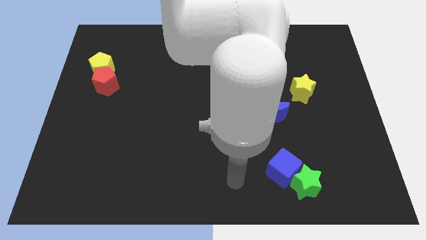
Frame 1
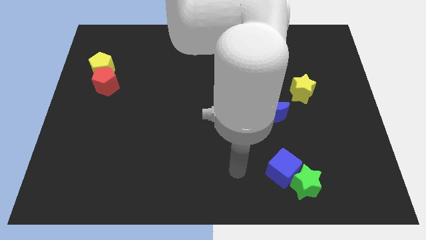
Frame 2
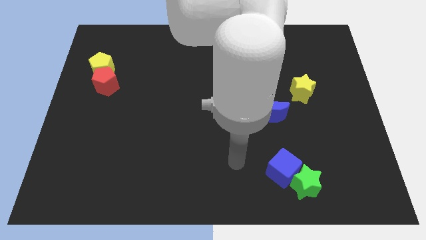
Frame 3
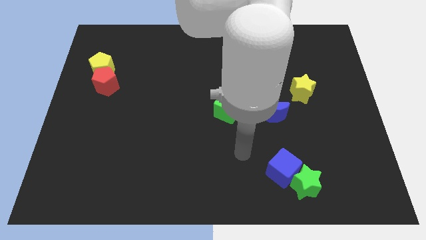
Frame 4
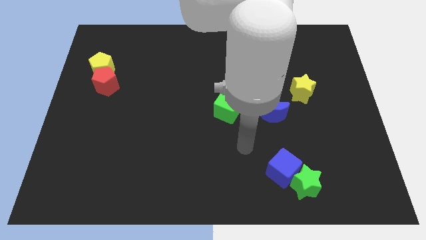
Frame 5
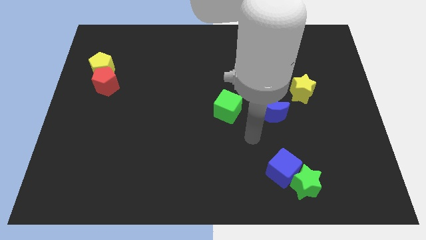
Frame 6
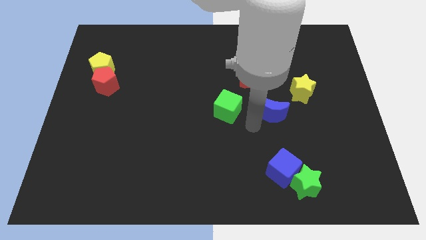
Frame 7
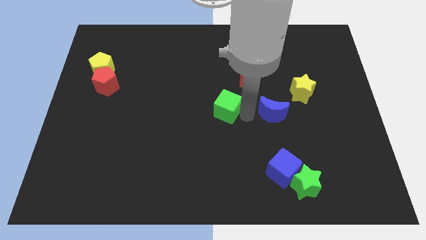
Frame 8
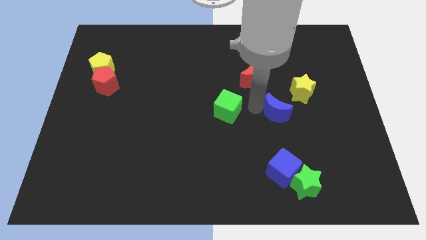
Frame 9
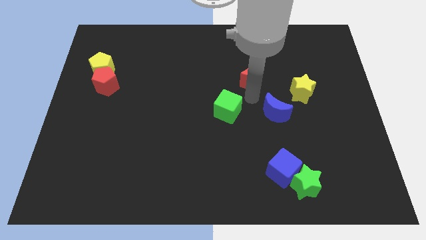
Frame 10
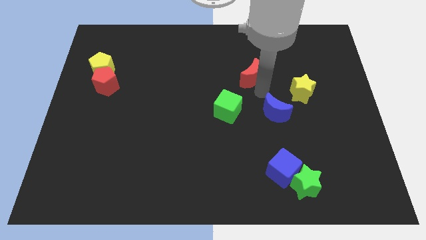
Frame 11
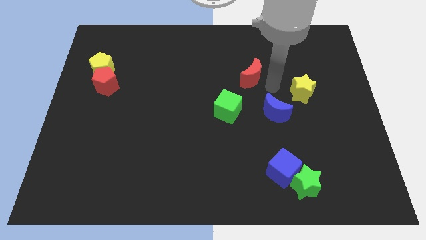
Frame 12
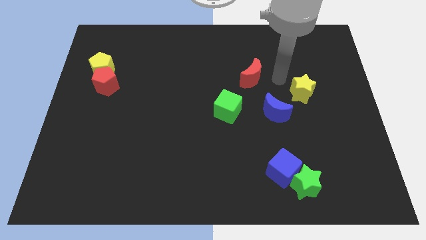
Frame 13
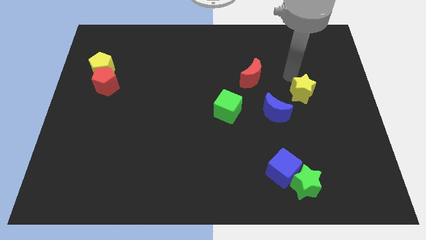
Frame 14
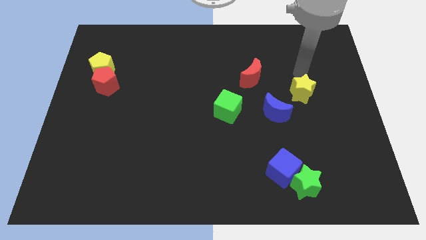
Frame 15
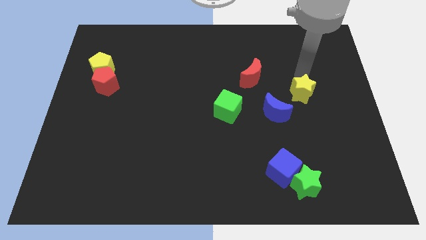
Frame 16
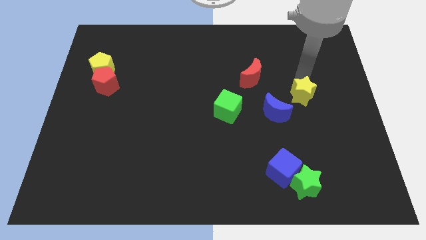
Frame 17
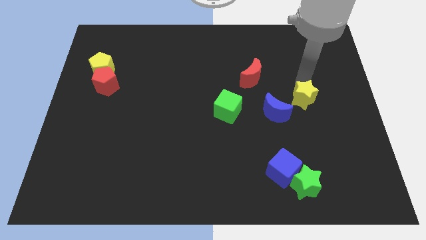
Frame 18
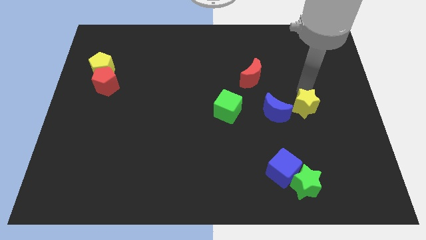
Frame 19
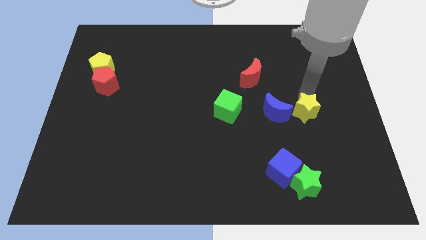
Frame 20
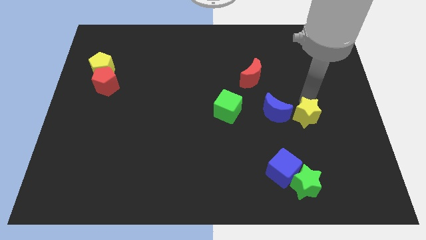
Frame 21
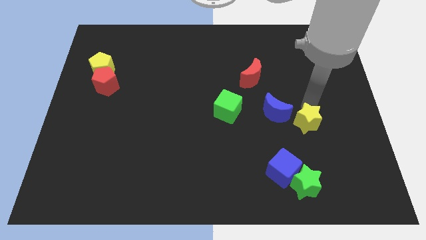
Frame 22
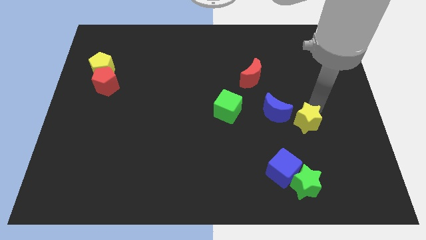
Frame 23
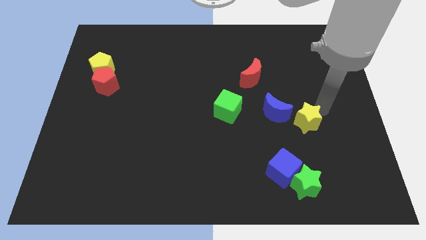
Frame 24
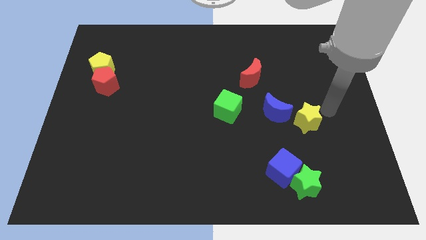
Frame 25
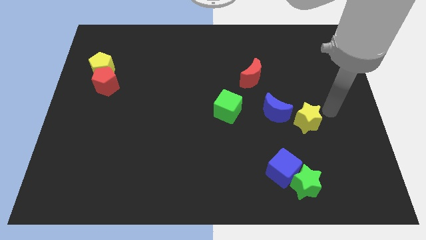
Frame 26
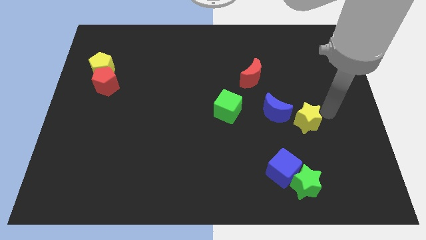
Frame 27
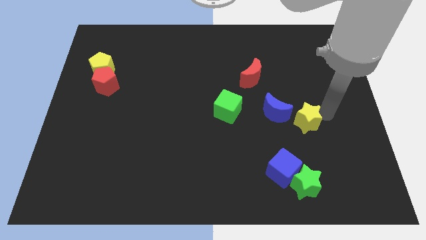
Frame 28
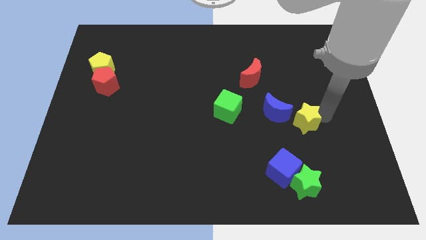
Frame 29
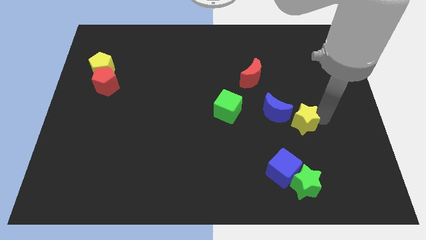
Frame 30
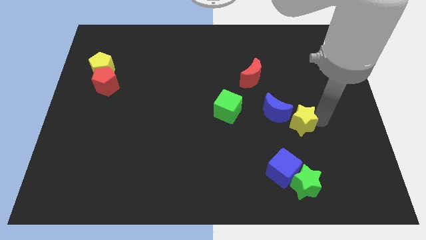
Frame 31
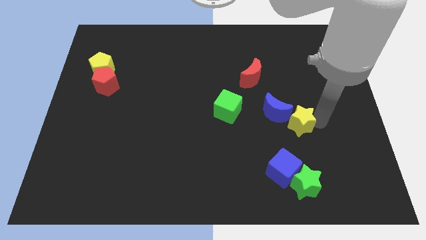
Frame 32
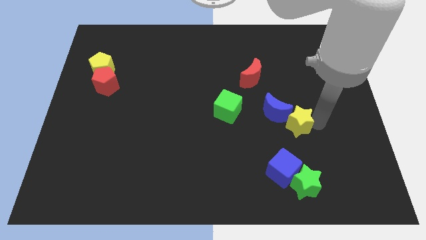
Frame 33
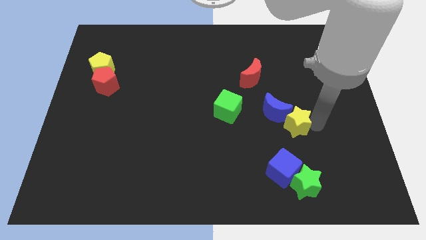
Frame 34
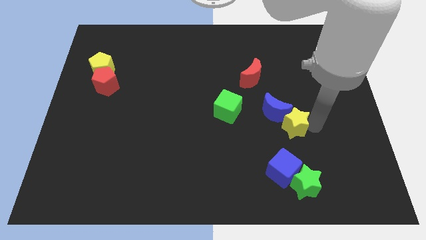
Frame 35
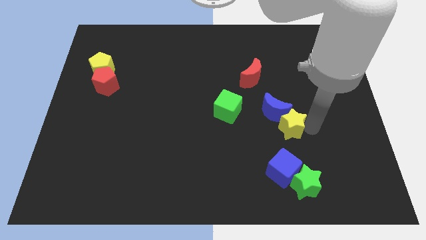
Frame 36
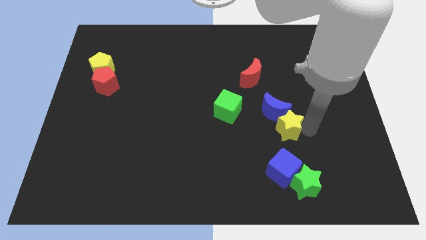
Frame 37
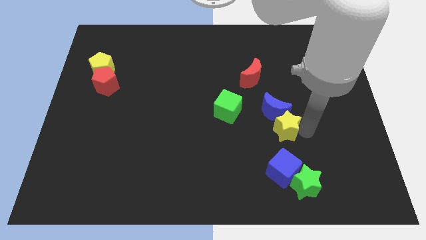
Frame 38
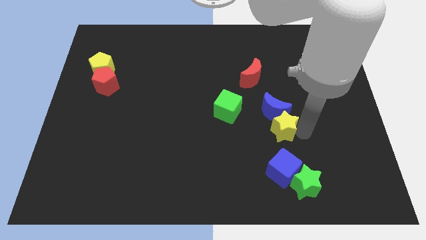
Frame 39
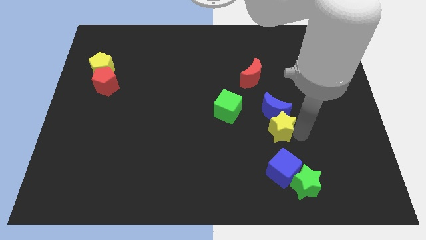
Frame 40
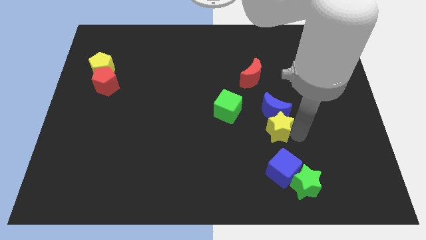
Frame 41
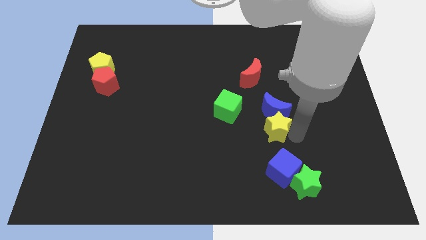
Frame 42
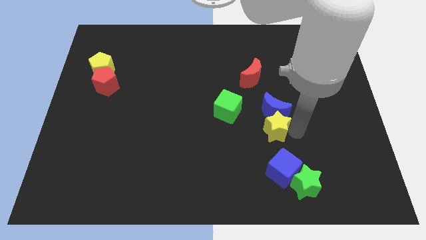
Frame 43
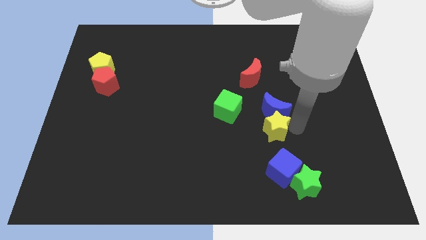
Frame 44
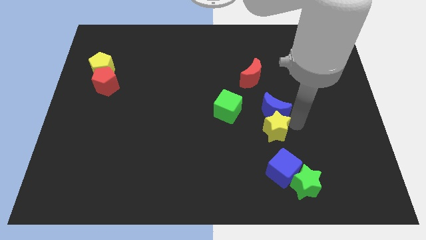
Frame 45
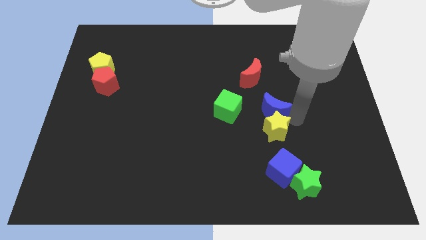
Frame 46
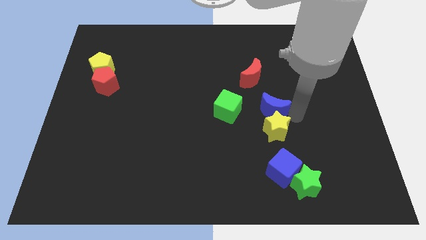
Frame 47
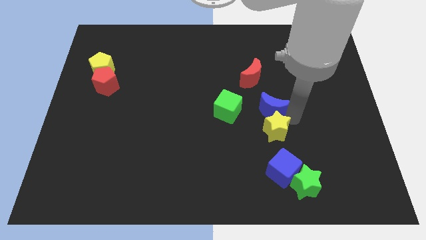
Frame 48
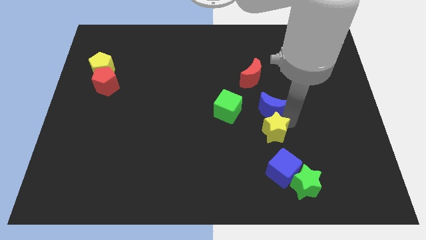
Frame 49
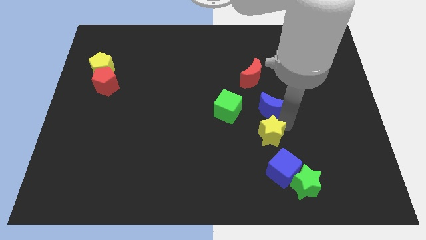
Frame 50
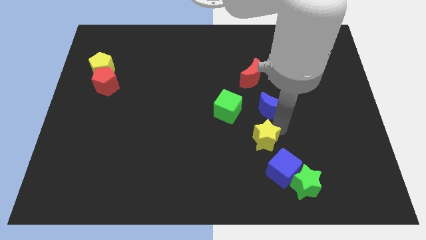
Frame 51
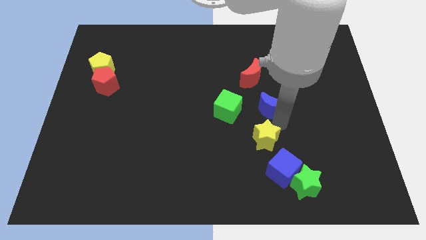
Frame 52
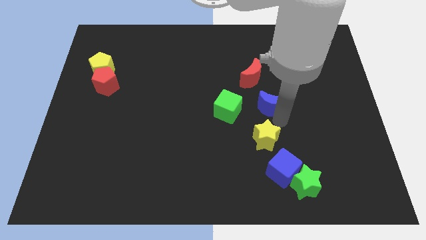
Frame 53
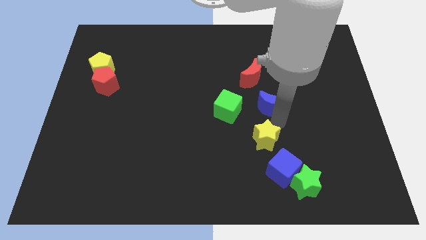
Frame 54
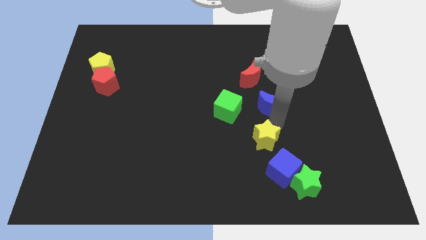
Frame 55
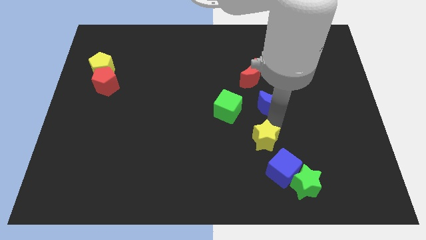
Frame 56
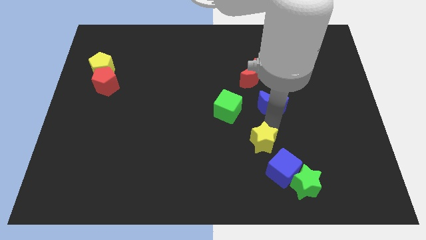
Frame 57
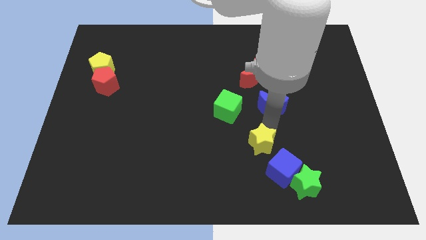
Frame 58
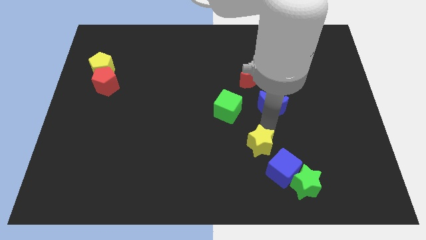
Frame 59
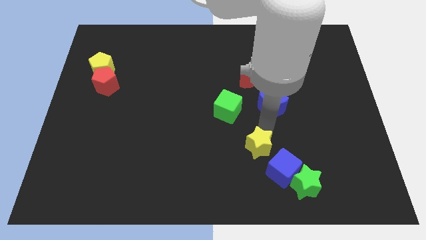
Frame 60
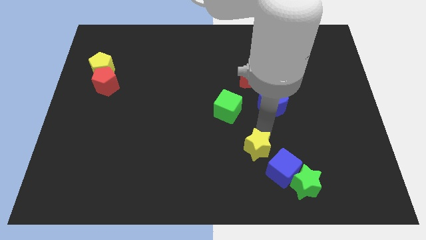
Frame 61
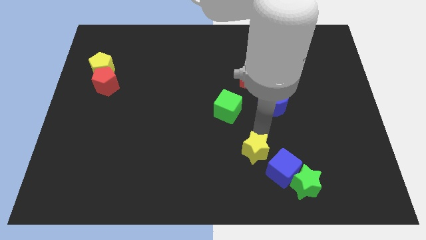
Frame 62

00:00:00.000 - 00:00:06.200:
put the yellow star to the left side of the blue cube

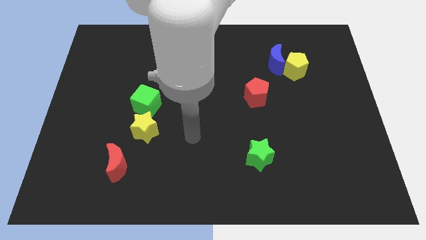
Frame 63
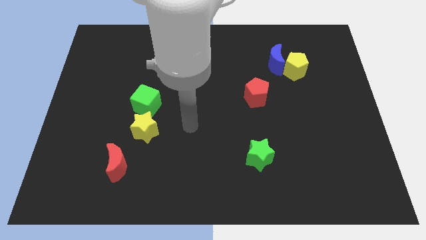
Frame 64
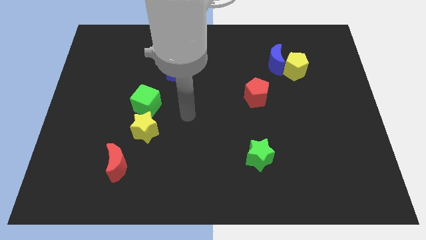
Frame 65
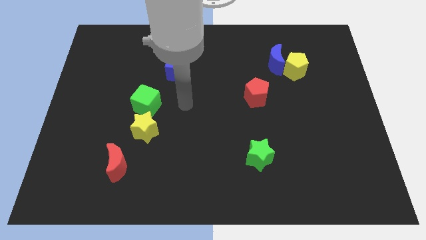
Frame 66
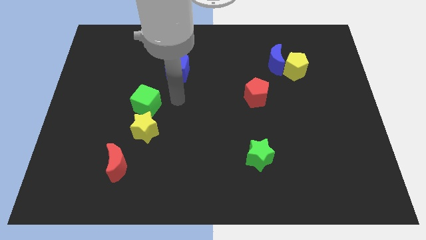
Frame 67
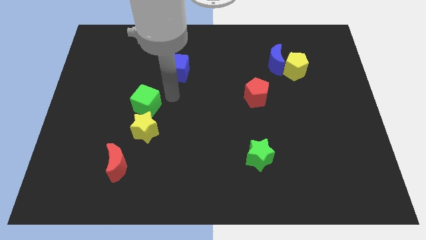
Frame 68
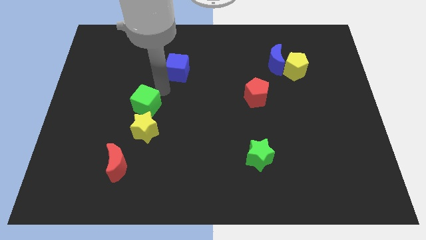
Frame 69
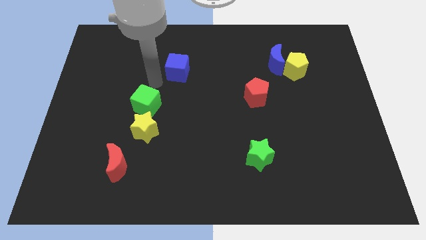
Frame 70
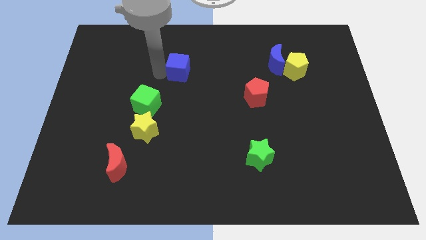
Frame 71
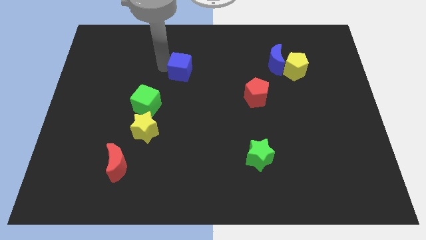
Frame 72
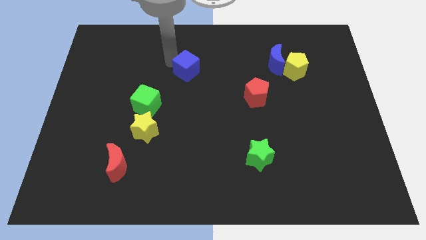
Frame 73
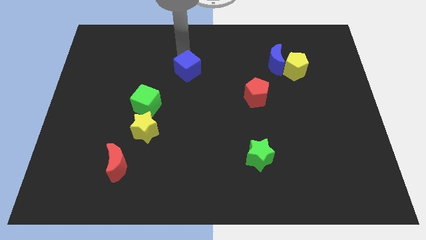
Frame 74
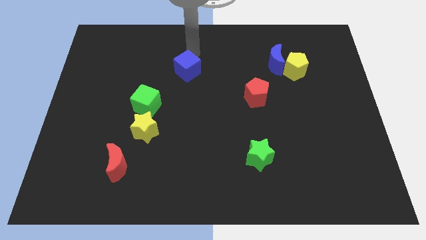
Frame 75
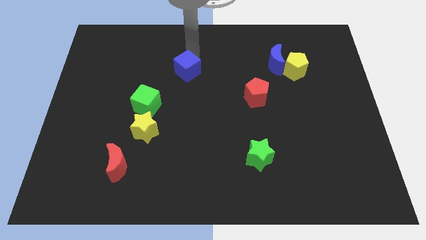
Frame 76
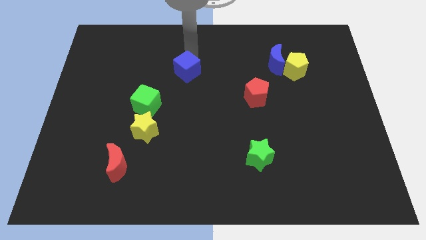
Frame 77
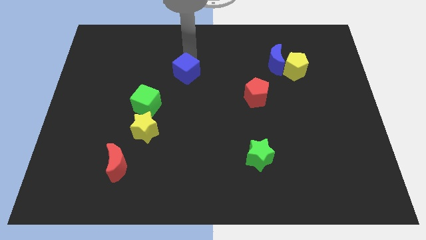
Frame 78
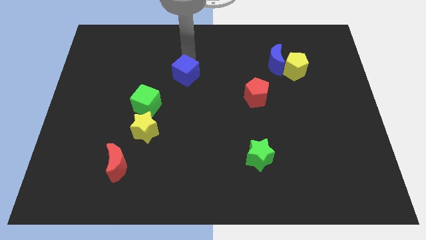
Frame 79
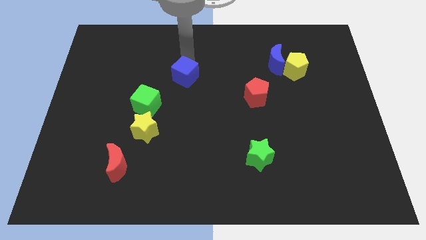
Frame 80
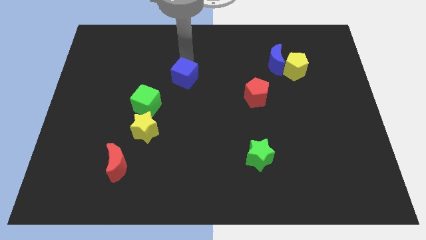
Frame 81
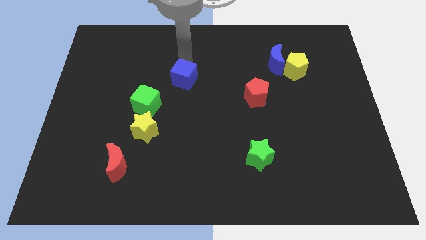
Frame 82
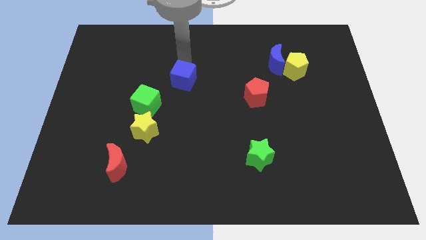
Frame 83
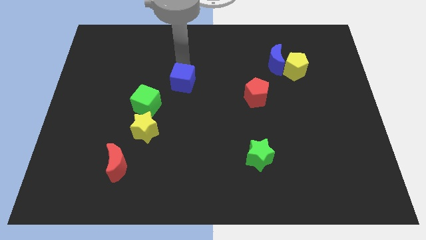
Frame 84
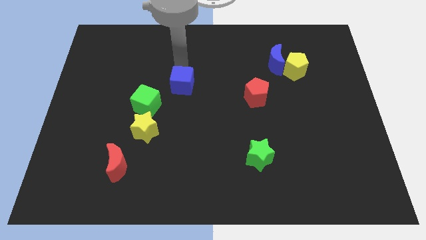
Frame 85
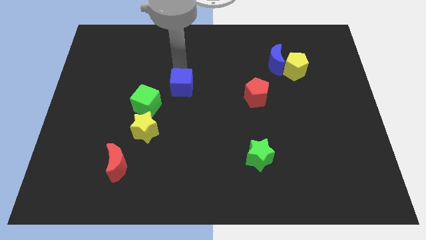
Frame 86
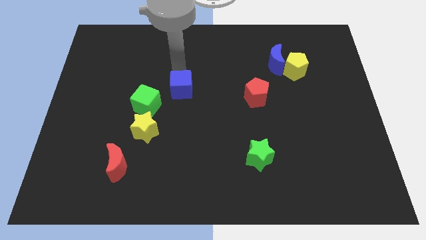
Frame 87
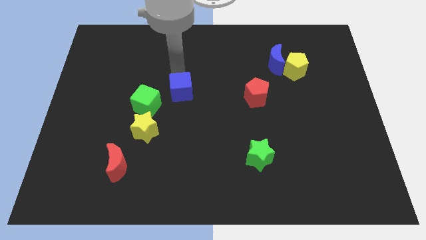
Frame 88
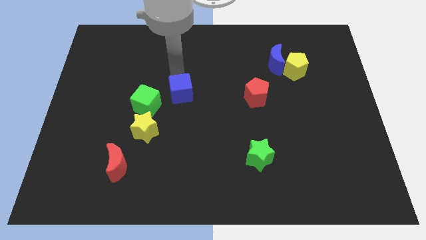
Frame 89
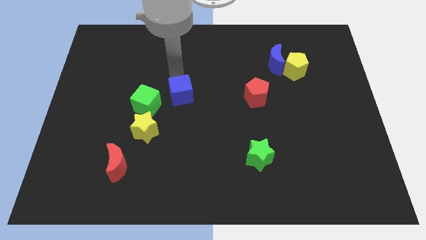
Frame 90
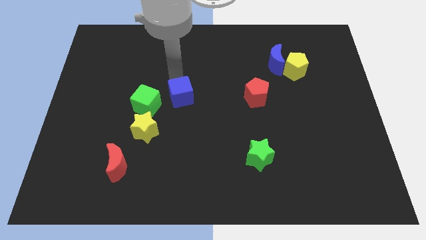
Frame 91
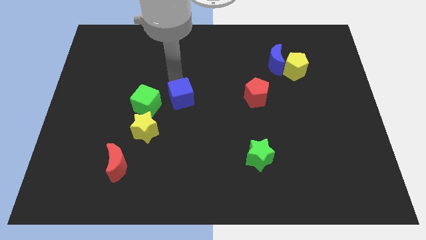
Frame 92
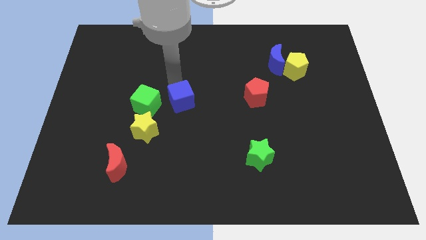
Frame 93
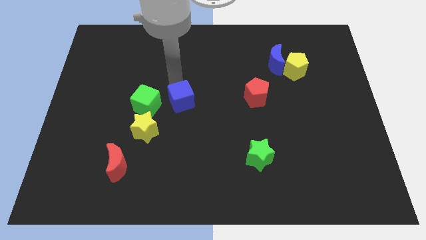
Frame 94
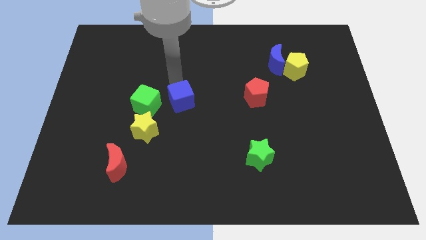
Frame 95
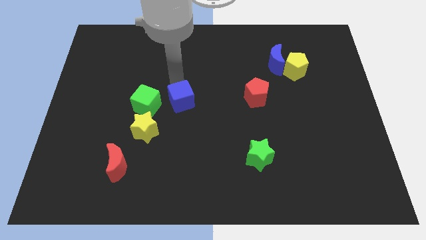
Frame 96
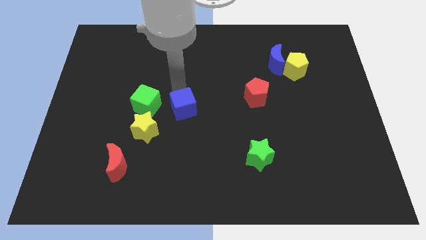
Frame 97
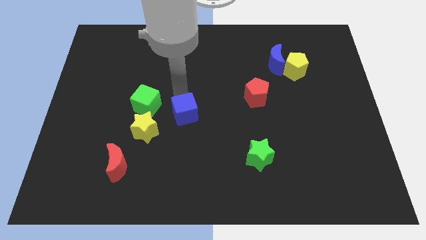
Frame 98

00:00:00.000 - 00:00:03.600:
move the blue cube right of the yellow star
